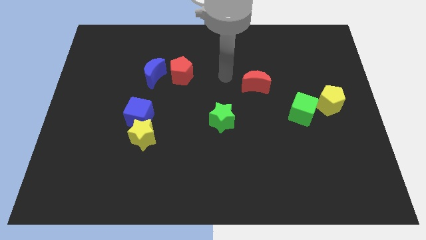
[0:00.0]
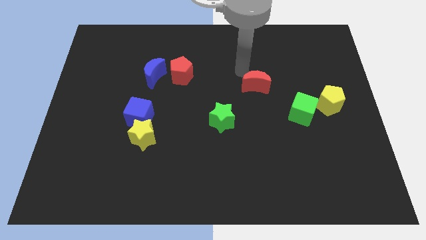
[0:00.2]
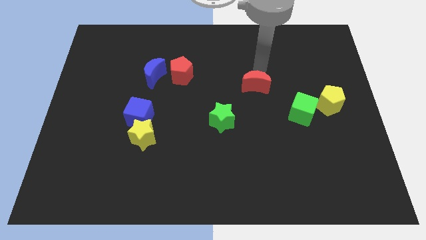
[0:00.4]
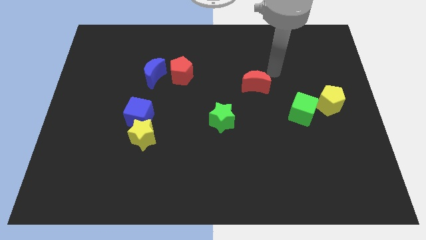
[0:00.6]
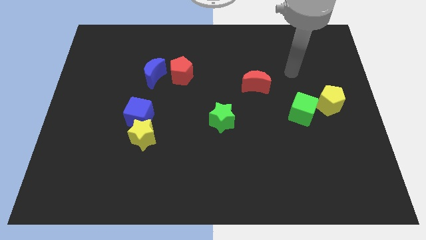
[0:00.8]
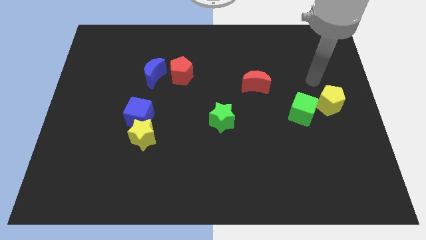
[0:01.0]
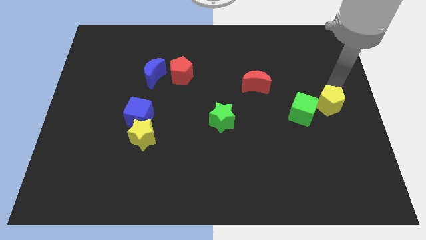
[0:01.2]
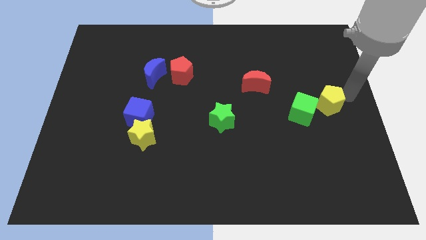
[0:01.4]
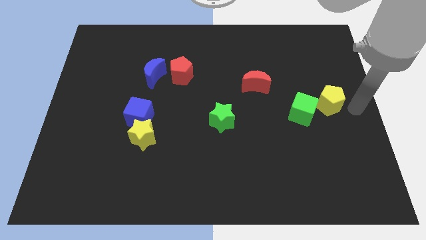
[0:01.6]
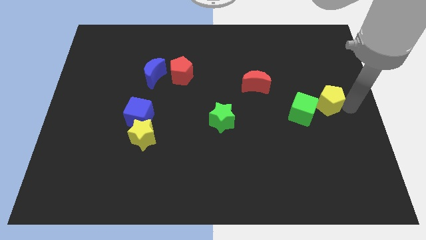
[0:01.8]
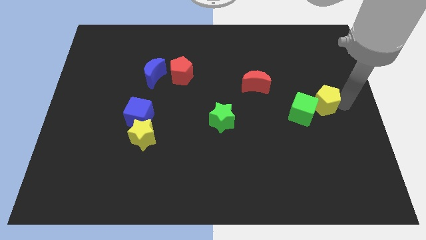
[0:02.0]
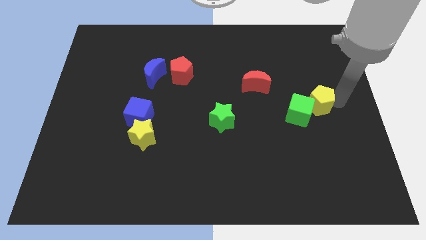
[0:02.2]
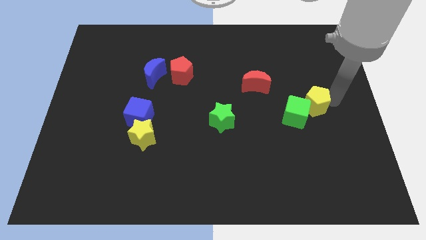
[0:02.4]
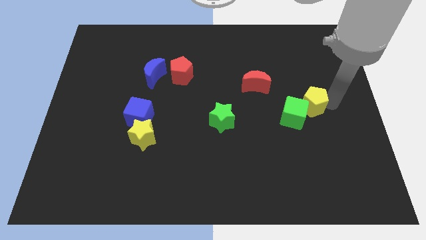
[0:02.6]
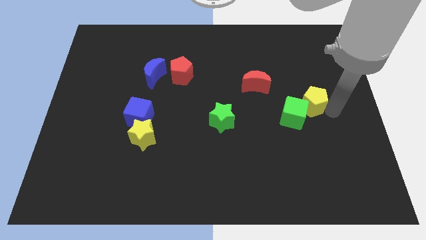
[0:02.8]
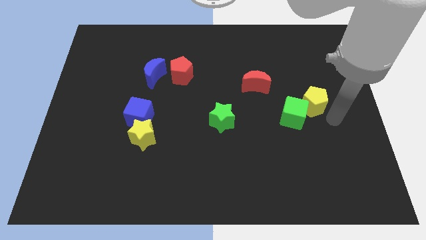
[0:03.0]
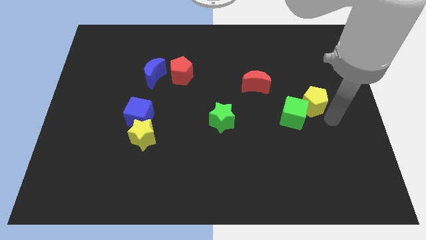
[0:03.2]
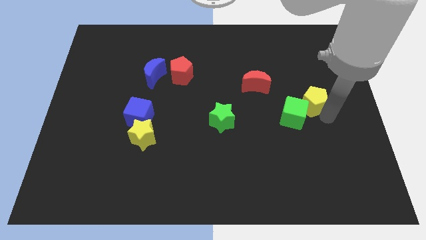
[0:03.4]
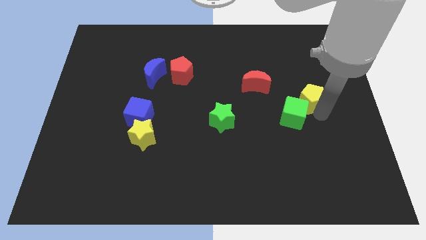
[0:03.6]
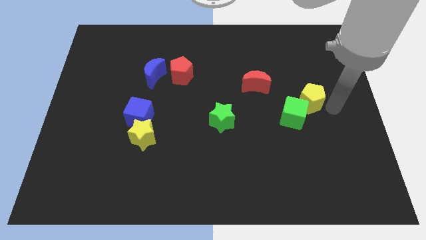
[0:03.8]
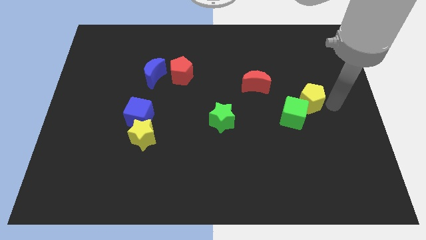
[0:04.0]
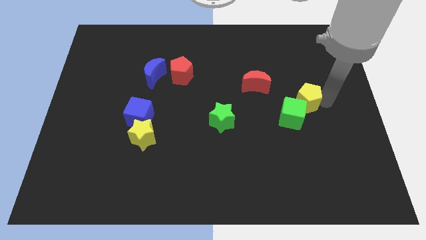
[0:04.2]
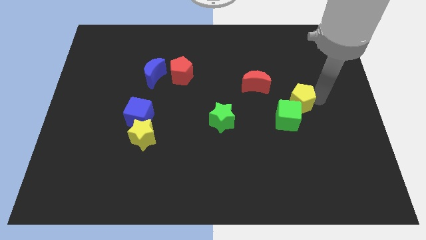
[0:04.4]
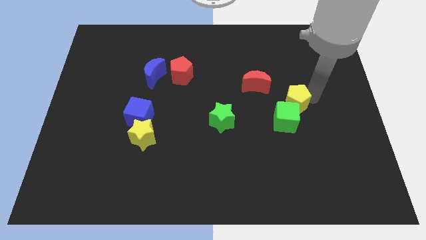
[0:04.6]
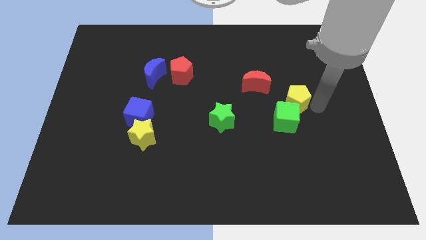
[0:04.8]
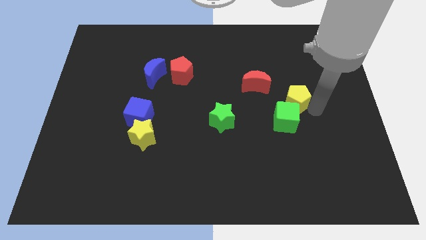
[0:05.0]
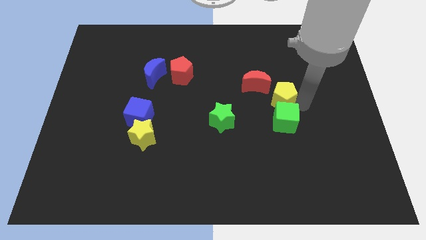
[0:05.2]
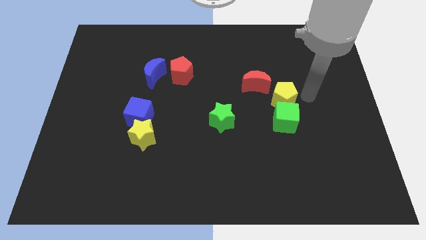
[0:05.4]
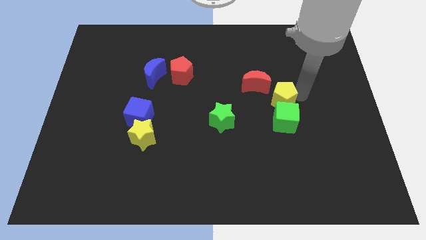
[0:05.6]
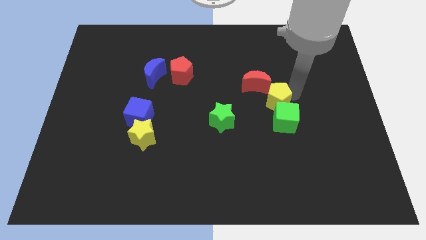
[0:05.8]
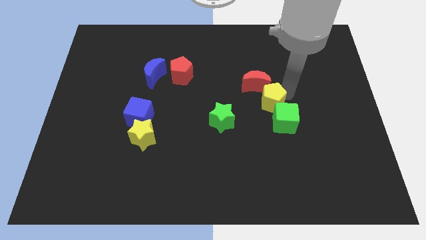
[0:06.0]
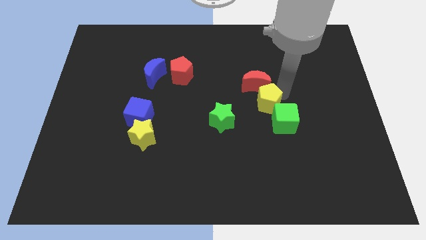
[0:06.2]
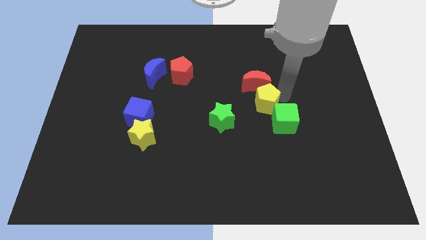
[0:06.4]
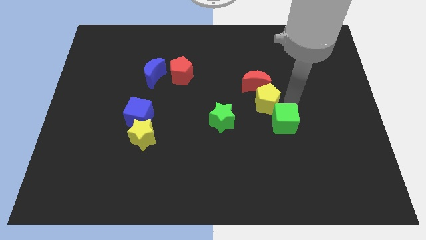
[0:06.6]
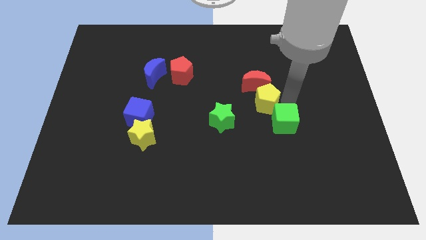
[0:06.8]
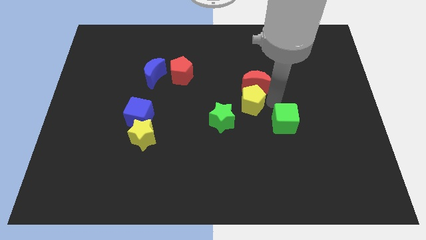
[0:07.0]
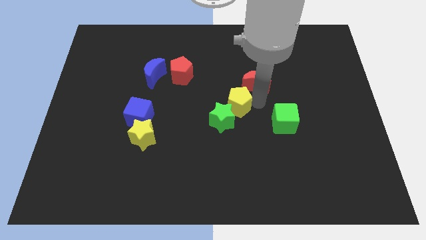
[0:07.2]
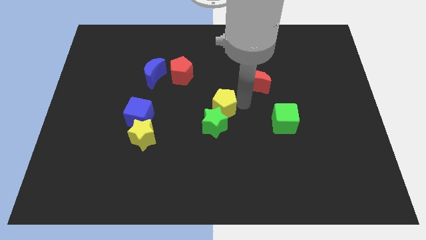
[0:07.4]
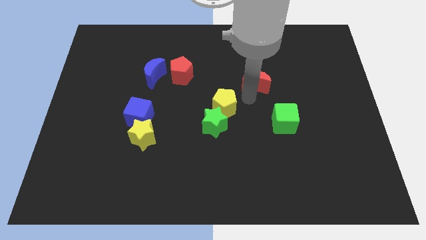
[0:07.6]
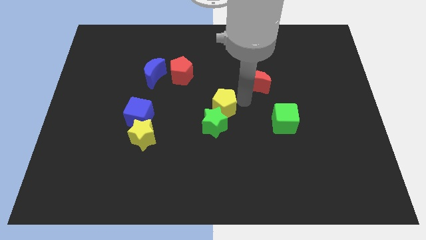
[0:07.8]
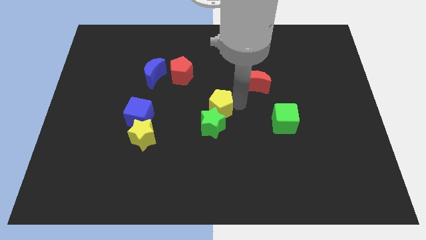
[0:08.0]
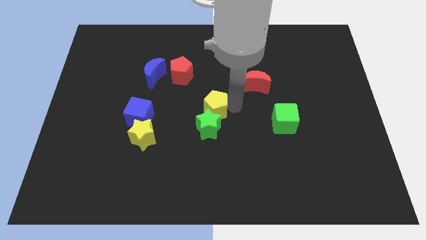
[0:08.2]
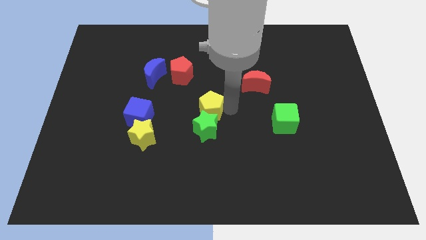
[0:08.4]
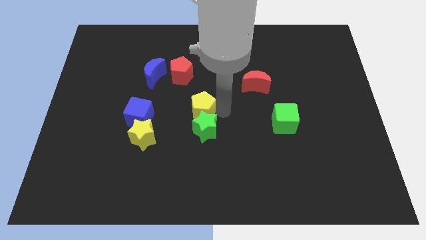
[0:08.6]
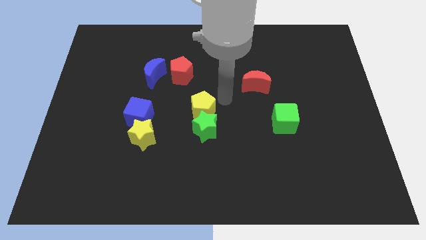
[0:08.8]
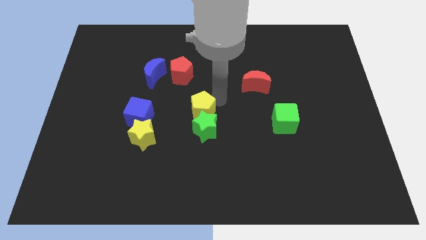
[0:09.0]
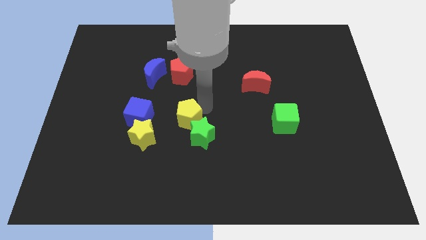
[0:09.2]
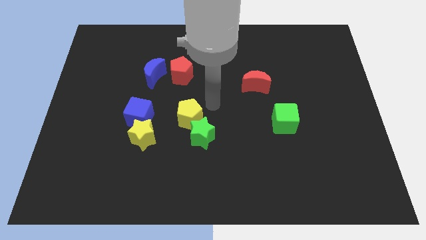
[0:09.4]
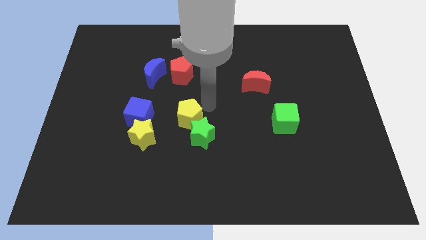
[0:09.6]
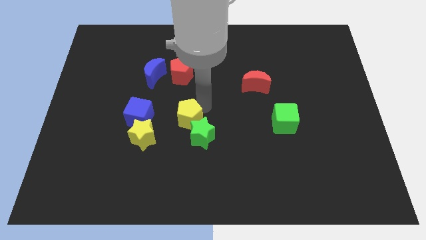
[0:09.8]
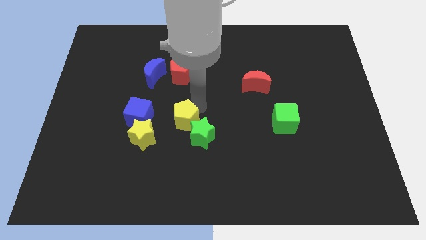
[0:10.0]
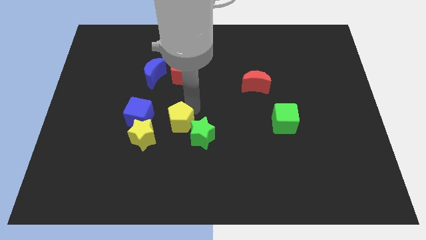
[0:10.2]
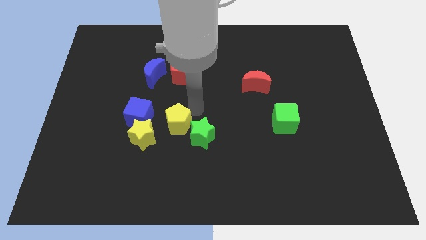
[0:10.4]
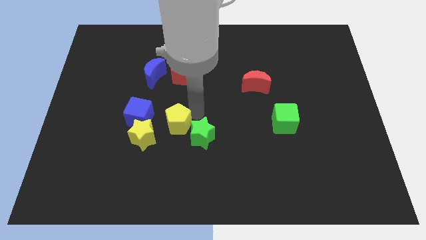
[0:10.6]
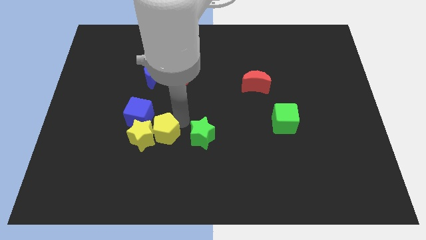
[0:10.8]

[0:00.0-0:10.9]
put the yellow pentagon to the yellow star

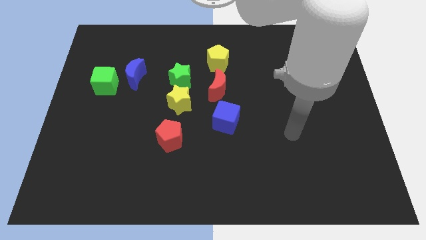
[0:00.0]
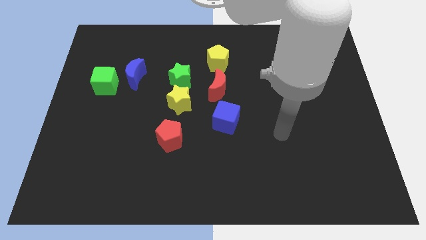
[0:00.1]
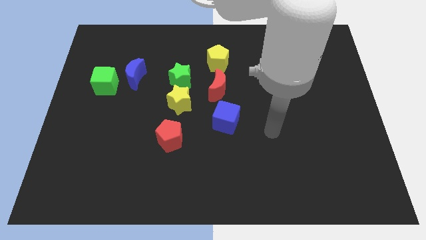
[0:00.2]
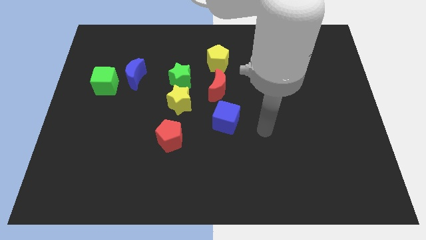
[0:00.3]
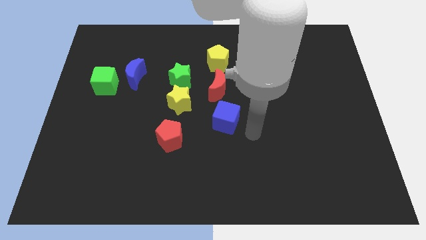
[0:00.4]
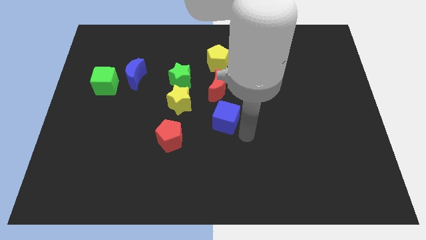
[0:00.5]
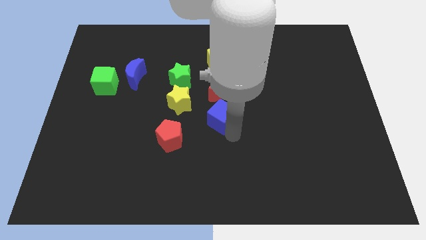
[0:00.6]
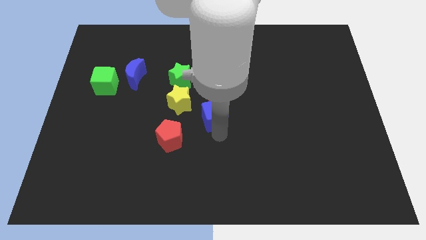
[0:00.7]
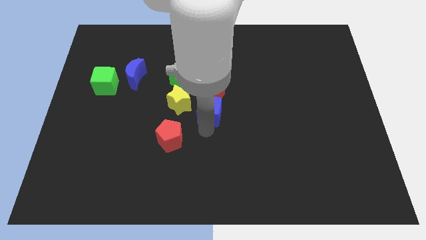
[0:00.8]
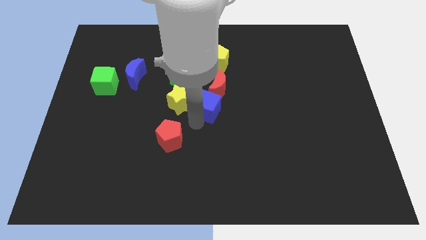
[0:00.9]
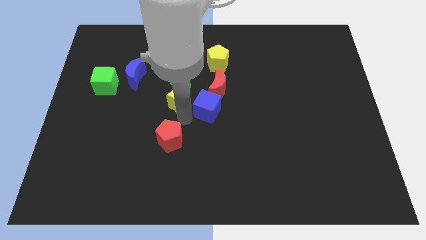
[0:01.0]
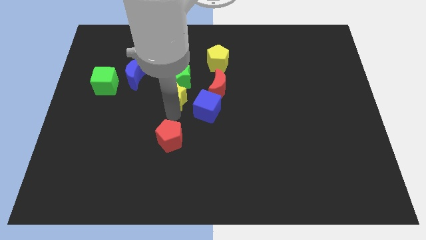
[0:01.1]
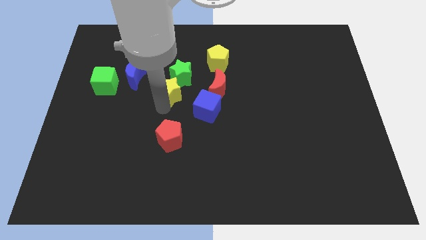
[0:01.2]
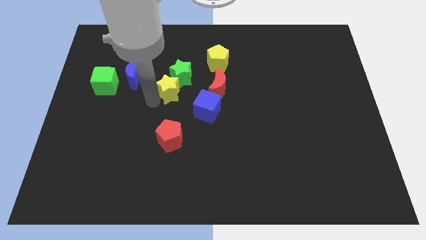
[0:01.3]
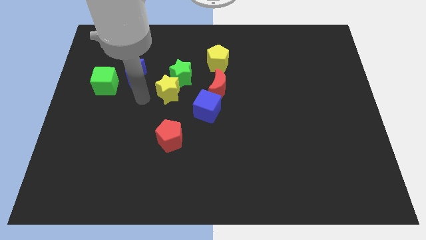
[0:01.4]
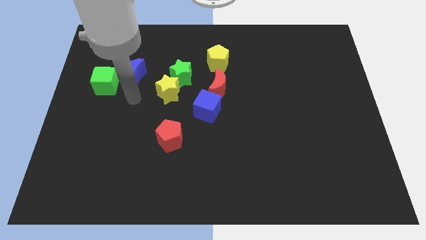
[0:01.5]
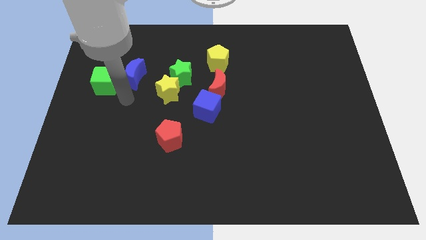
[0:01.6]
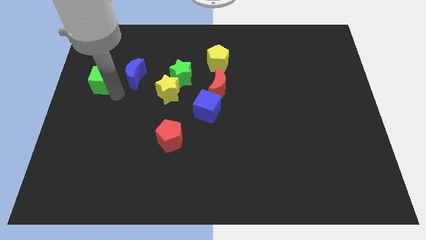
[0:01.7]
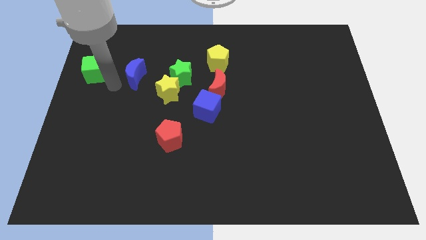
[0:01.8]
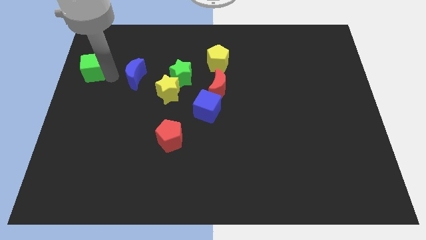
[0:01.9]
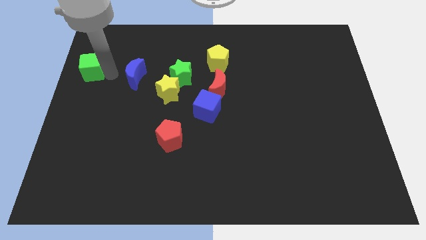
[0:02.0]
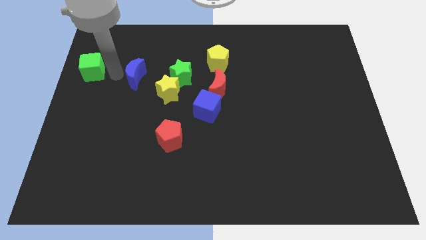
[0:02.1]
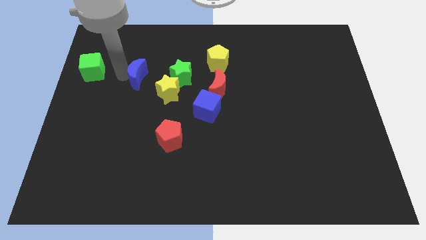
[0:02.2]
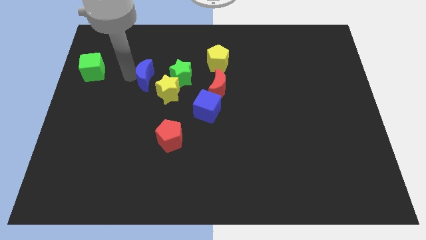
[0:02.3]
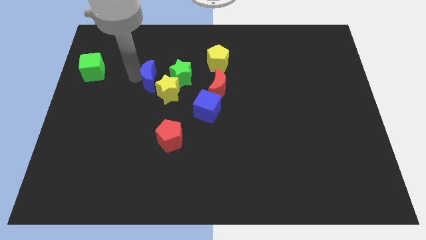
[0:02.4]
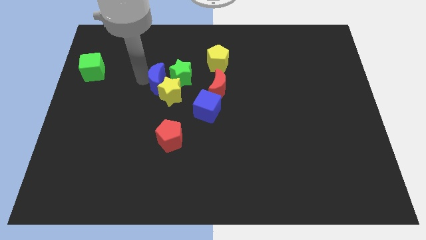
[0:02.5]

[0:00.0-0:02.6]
put the blue moon close to the green star
